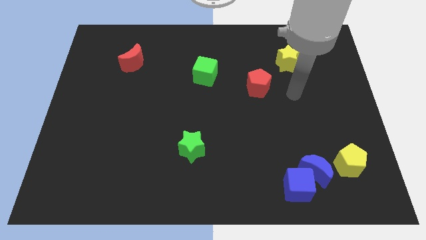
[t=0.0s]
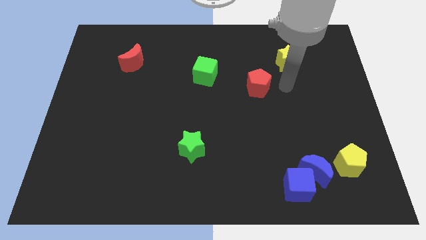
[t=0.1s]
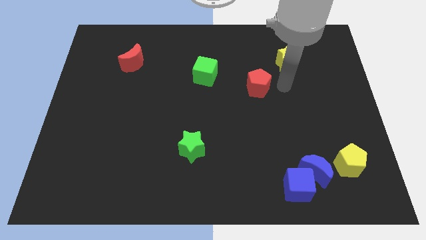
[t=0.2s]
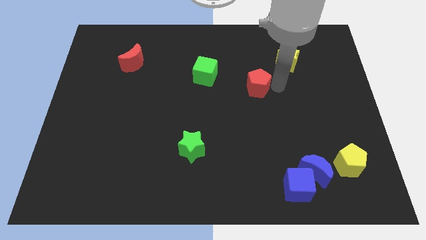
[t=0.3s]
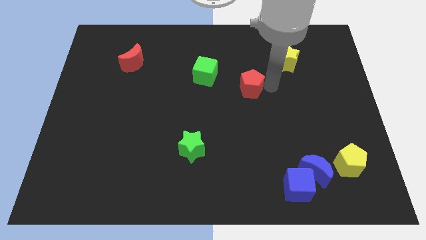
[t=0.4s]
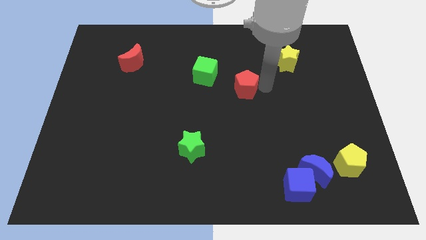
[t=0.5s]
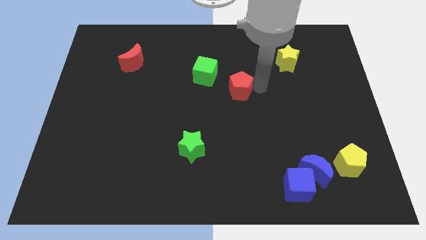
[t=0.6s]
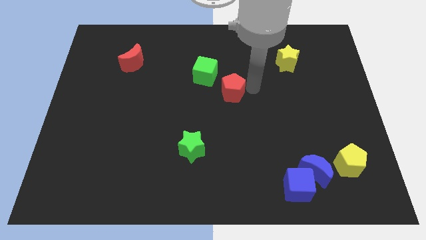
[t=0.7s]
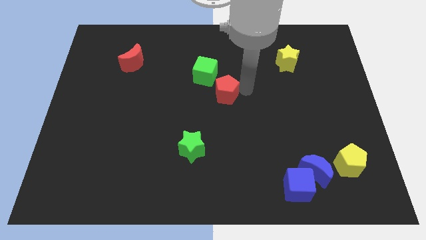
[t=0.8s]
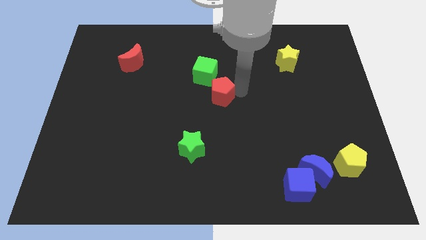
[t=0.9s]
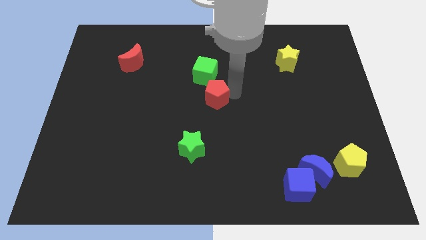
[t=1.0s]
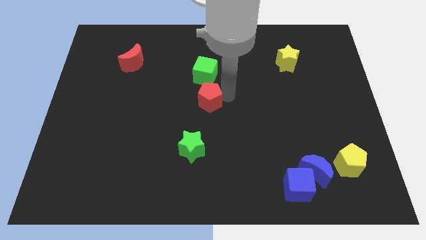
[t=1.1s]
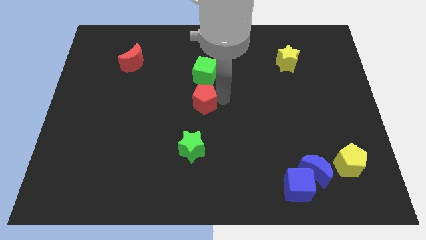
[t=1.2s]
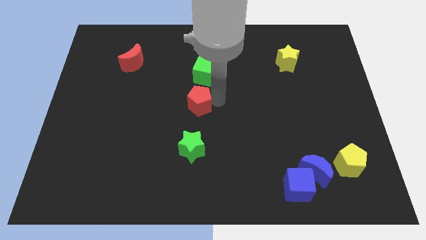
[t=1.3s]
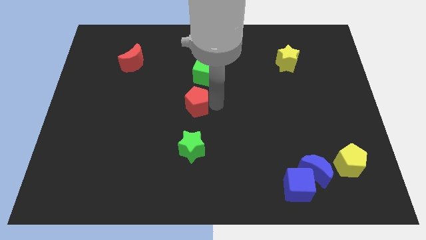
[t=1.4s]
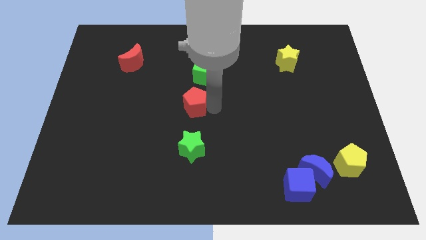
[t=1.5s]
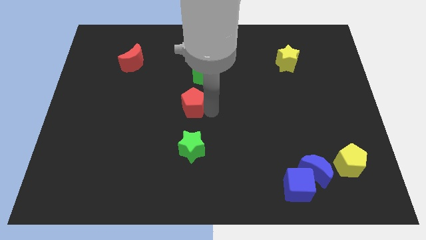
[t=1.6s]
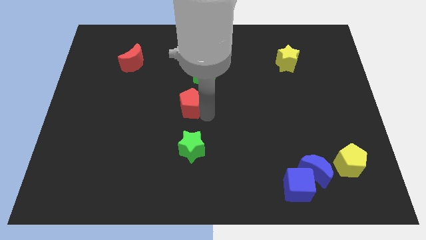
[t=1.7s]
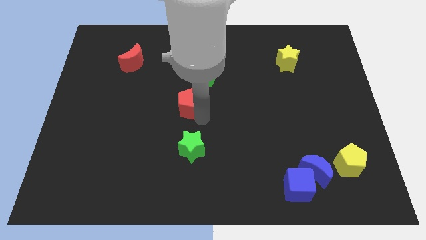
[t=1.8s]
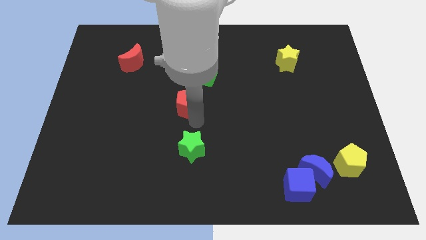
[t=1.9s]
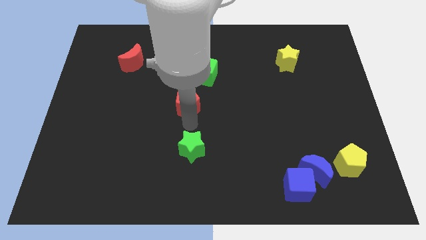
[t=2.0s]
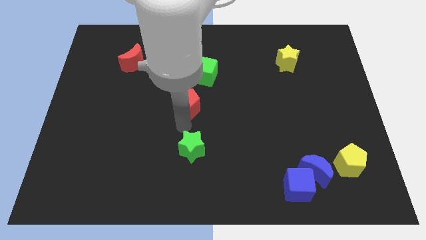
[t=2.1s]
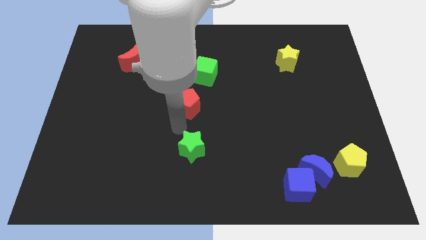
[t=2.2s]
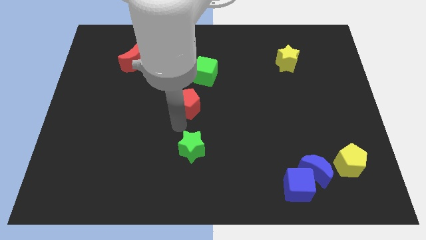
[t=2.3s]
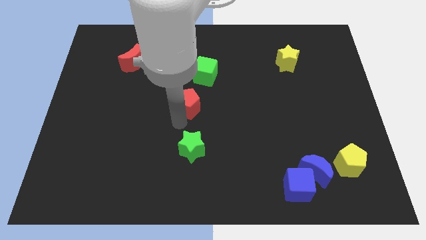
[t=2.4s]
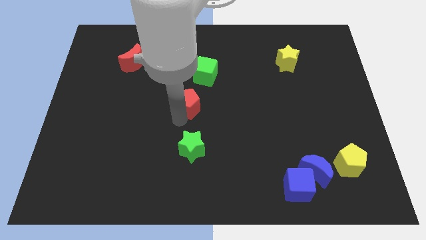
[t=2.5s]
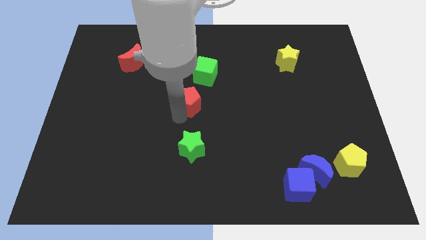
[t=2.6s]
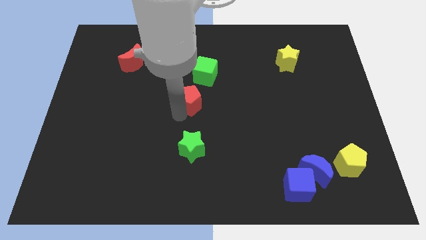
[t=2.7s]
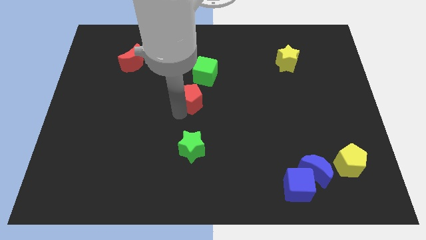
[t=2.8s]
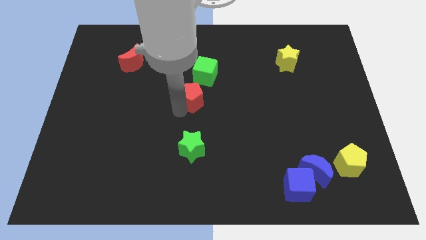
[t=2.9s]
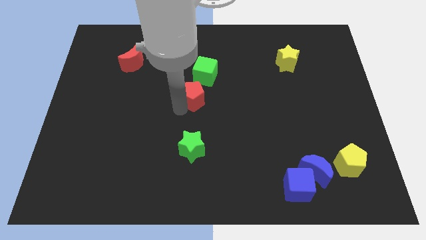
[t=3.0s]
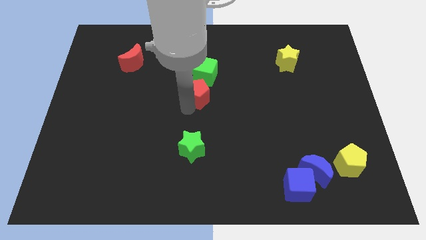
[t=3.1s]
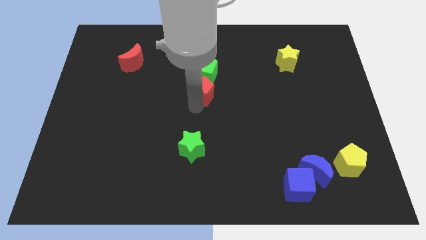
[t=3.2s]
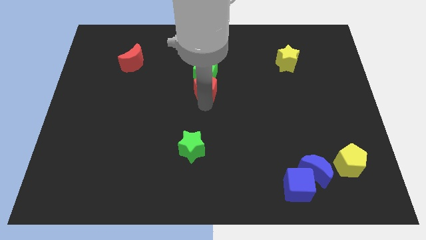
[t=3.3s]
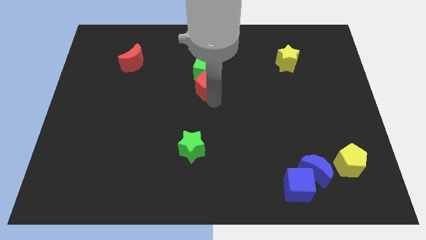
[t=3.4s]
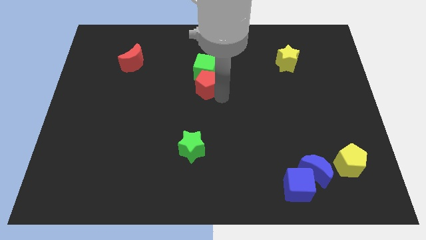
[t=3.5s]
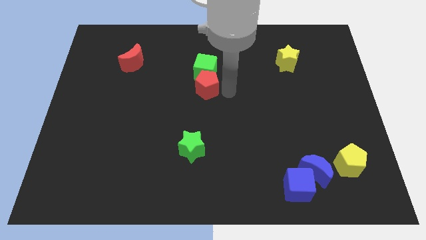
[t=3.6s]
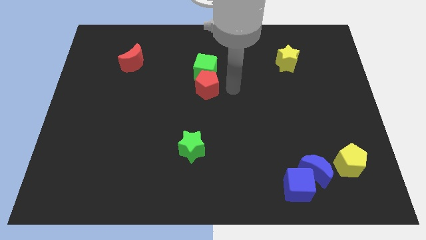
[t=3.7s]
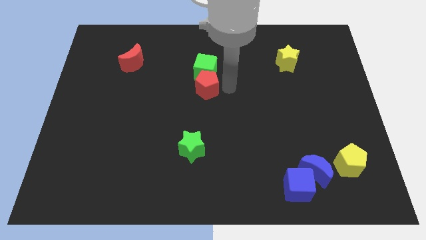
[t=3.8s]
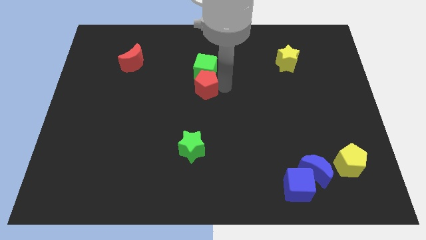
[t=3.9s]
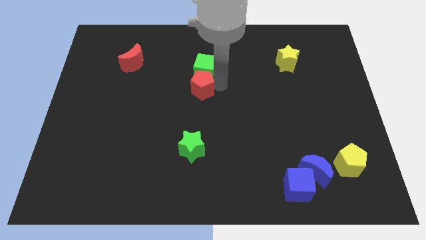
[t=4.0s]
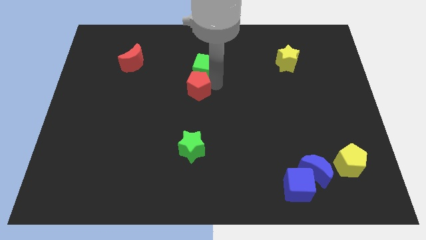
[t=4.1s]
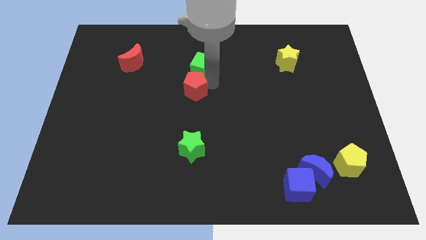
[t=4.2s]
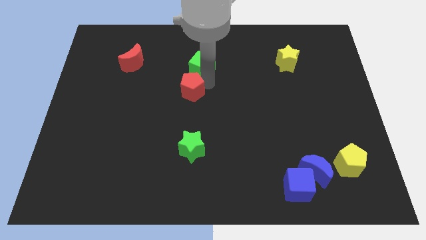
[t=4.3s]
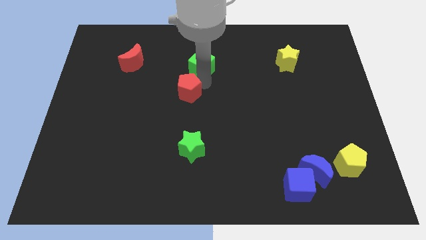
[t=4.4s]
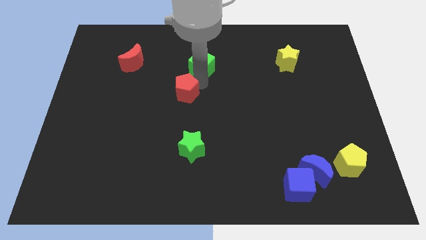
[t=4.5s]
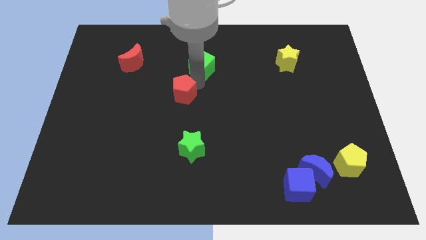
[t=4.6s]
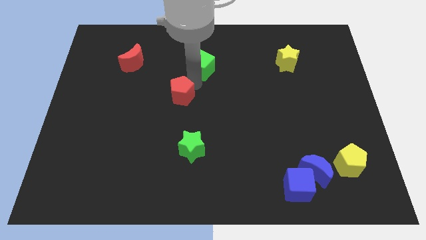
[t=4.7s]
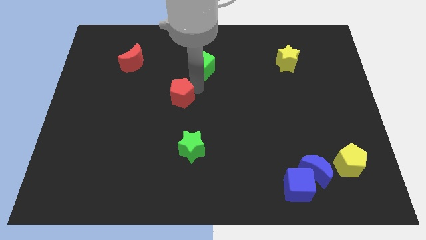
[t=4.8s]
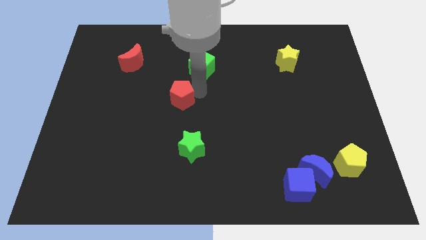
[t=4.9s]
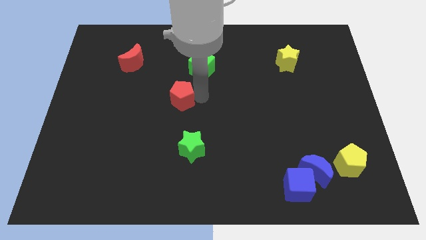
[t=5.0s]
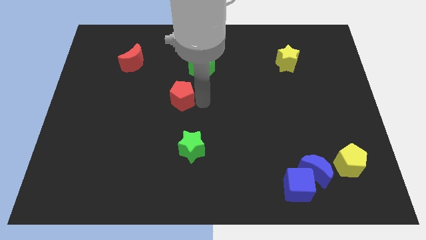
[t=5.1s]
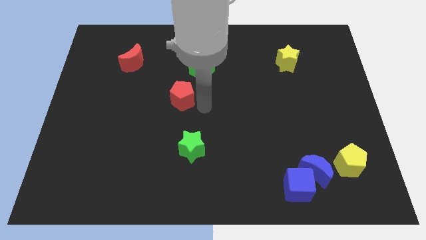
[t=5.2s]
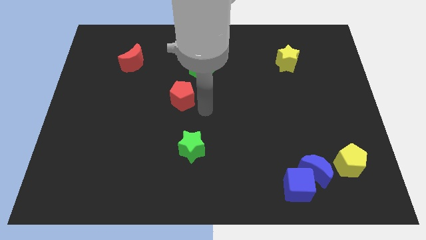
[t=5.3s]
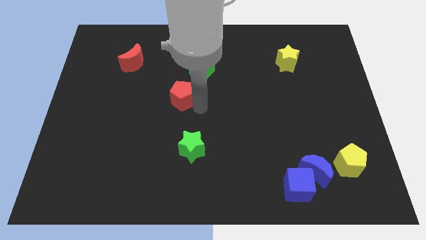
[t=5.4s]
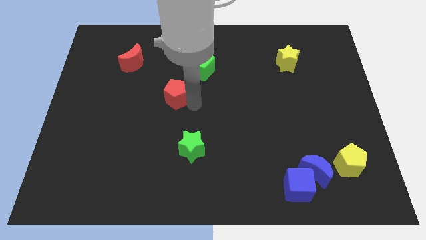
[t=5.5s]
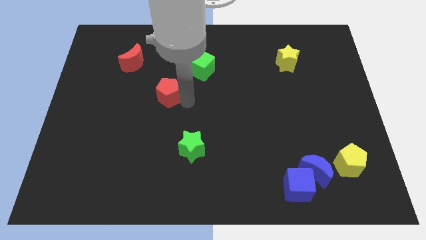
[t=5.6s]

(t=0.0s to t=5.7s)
move the red pentagon to the left

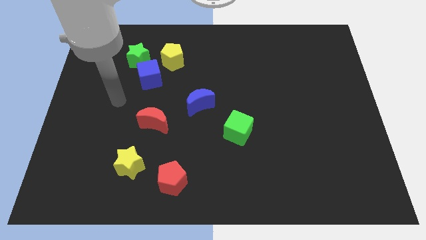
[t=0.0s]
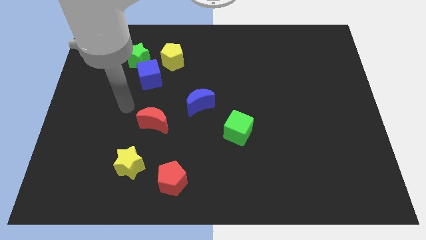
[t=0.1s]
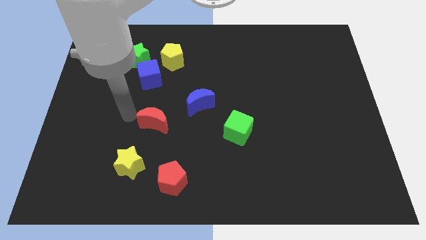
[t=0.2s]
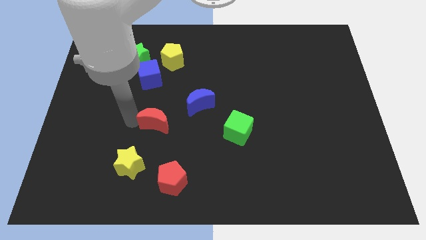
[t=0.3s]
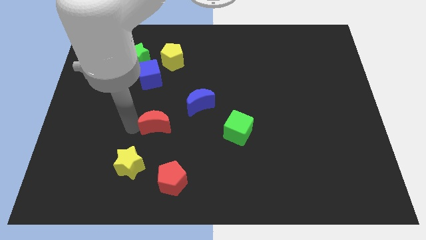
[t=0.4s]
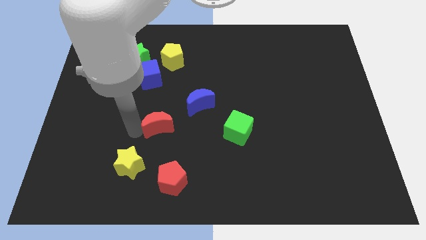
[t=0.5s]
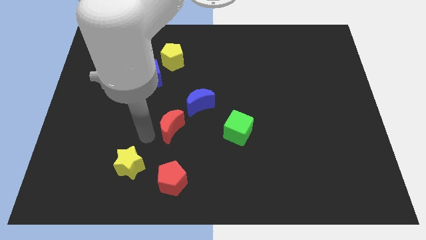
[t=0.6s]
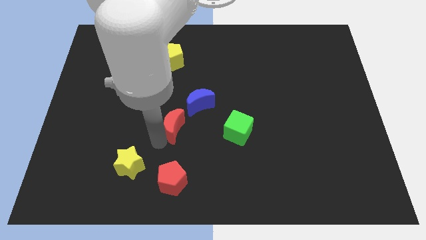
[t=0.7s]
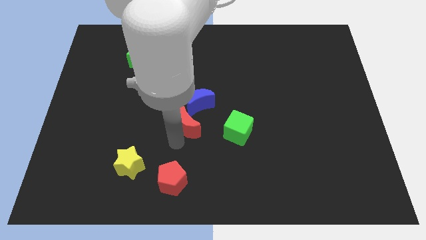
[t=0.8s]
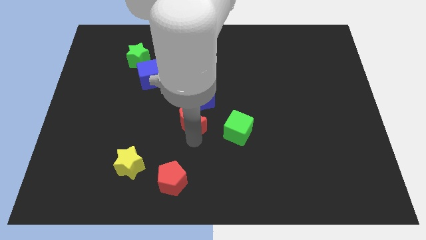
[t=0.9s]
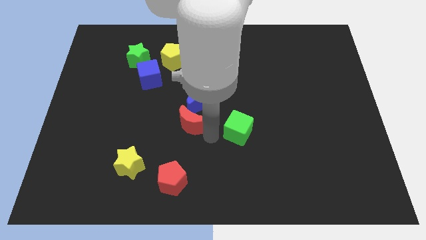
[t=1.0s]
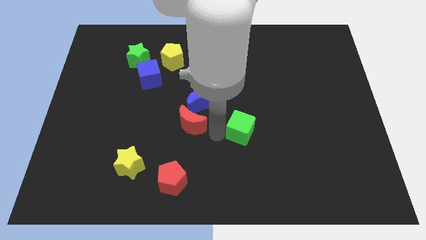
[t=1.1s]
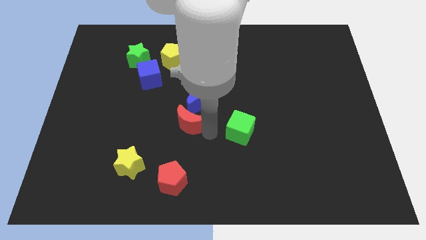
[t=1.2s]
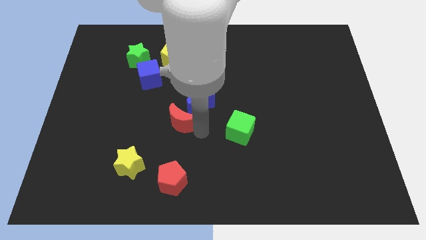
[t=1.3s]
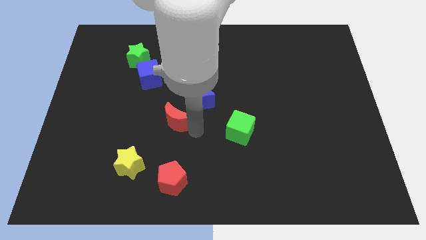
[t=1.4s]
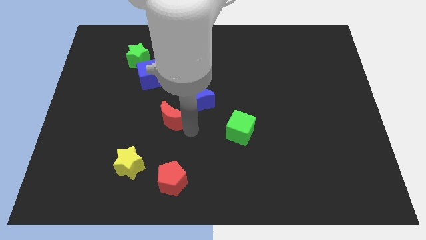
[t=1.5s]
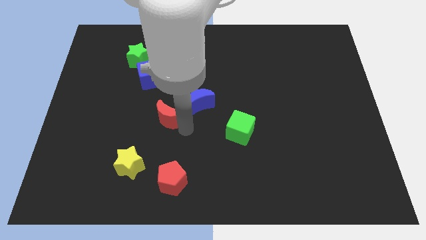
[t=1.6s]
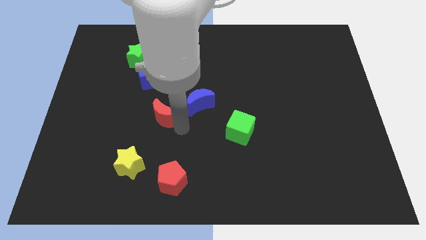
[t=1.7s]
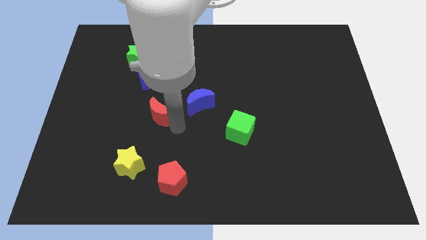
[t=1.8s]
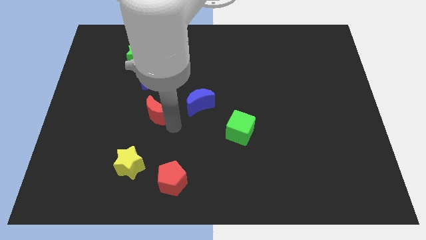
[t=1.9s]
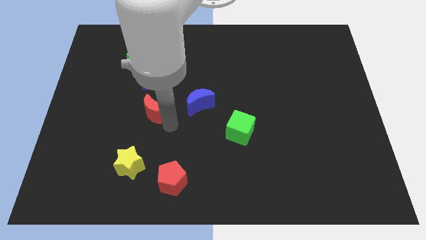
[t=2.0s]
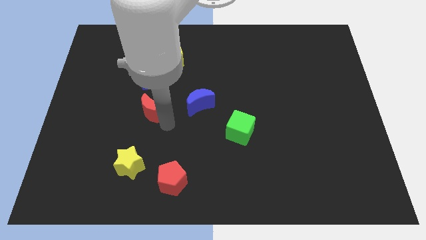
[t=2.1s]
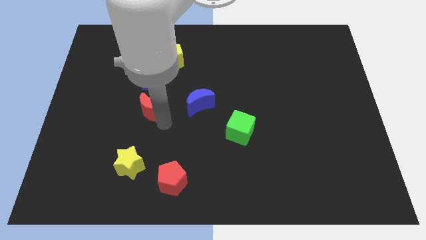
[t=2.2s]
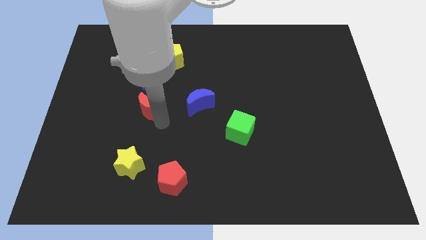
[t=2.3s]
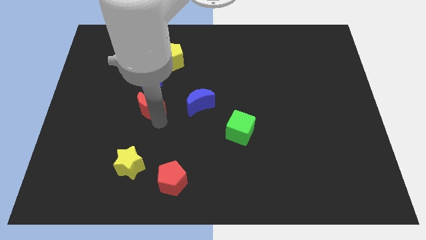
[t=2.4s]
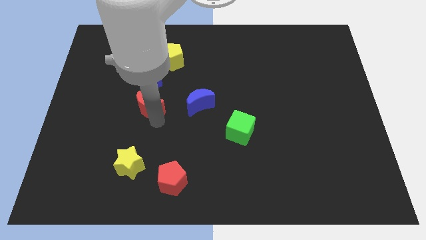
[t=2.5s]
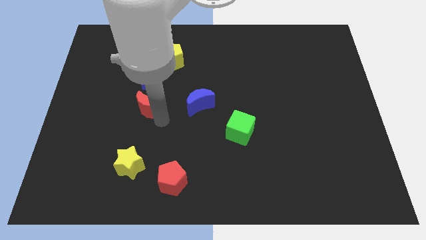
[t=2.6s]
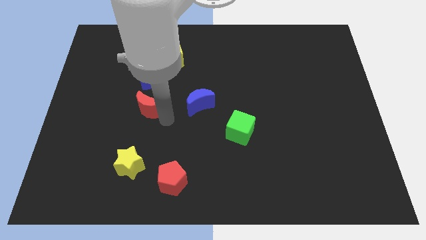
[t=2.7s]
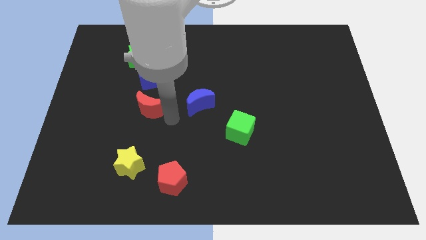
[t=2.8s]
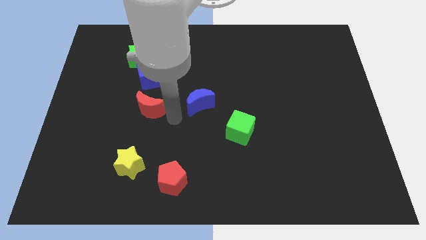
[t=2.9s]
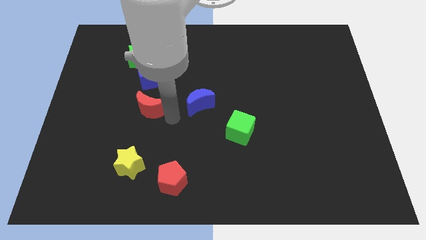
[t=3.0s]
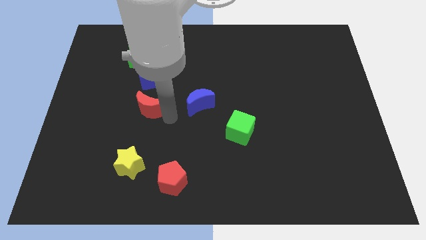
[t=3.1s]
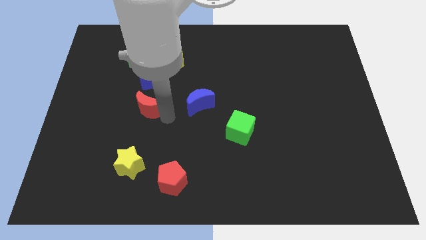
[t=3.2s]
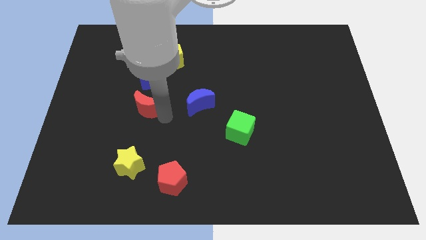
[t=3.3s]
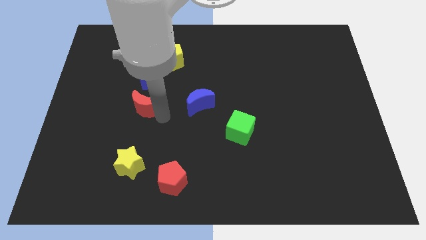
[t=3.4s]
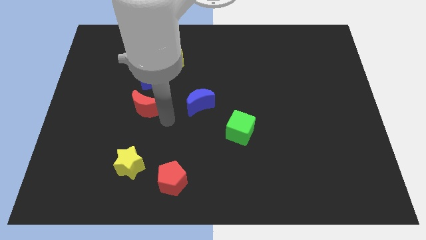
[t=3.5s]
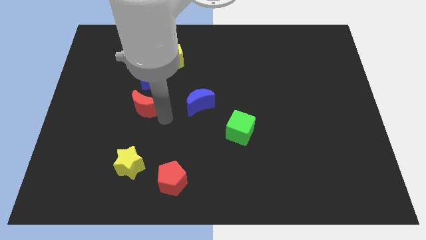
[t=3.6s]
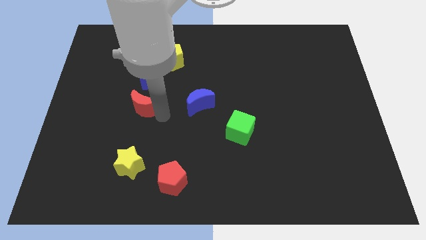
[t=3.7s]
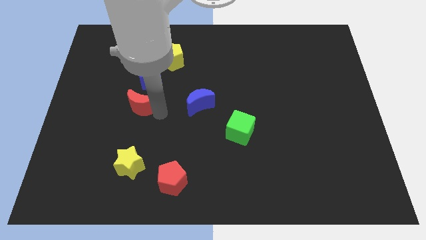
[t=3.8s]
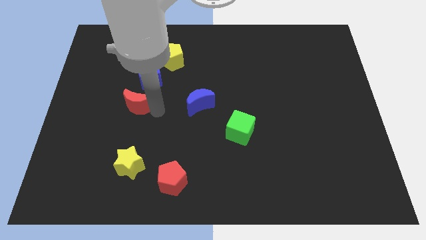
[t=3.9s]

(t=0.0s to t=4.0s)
move the red moon upwards and then to the left a little
